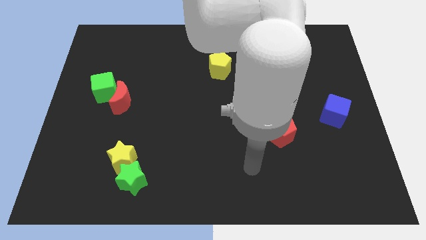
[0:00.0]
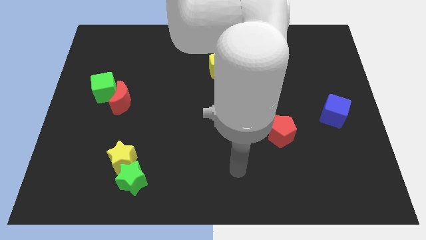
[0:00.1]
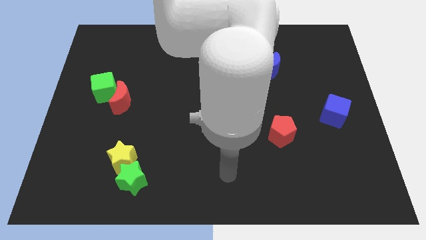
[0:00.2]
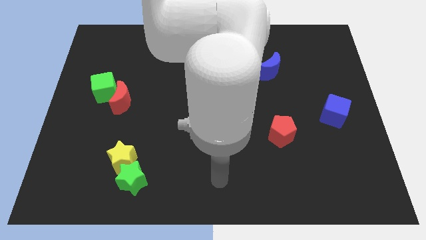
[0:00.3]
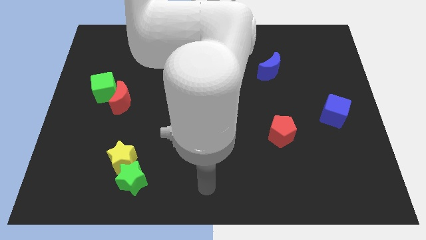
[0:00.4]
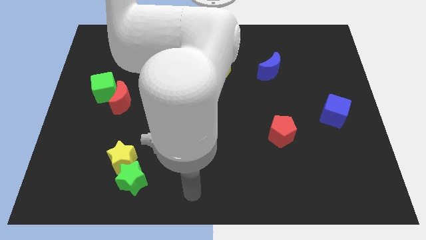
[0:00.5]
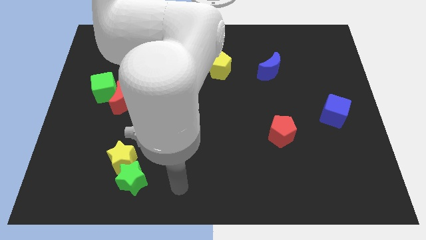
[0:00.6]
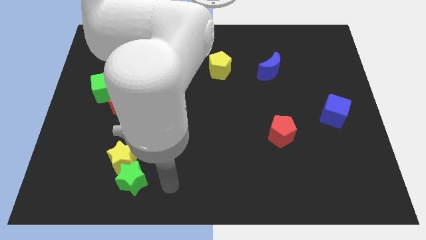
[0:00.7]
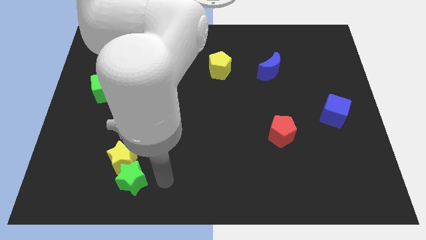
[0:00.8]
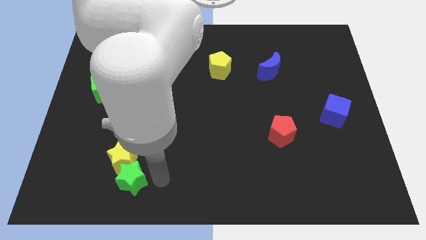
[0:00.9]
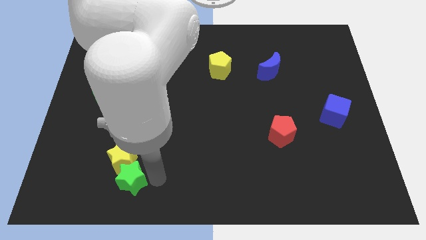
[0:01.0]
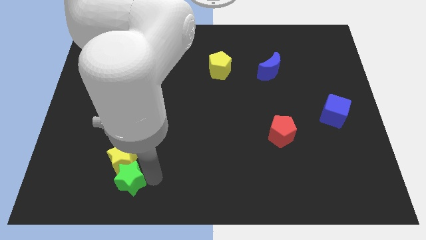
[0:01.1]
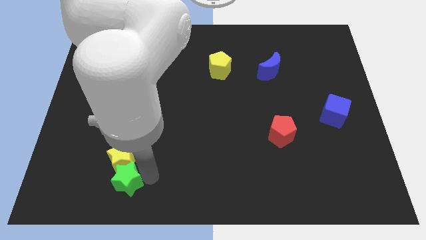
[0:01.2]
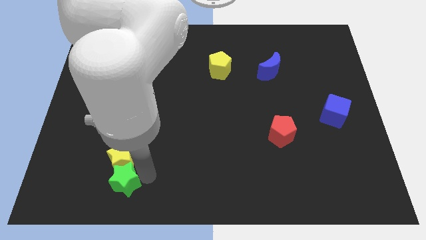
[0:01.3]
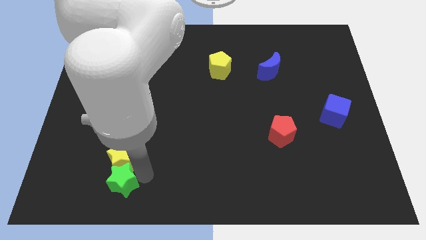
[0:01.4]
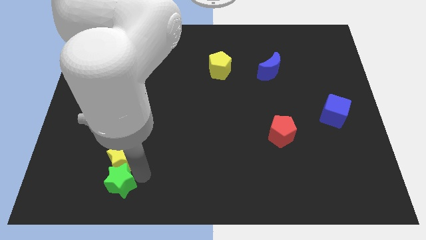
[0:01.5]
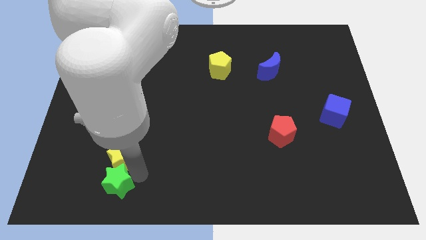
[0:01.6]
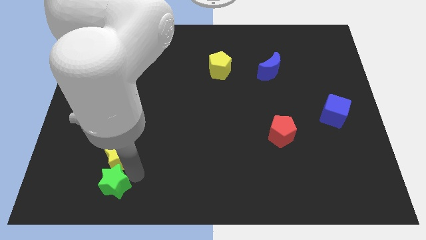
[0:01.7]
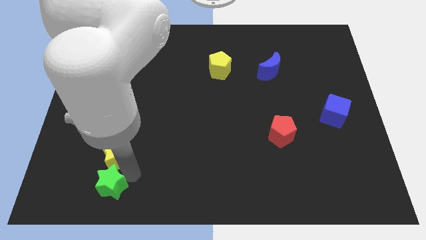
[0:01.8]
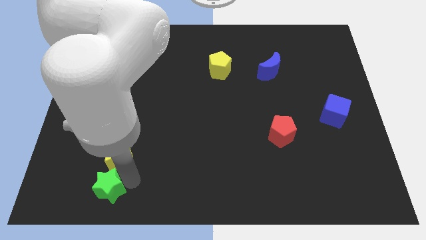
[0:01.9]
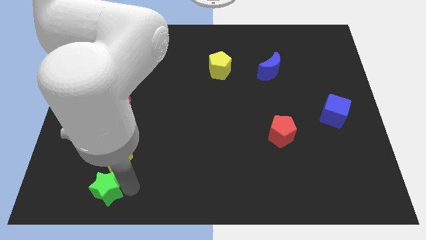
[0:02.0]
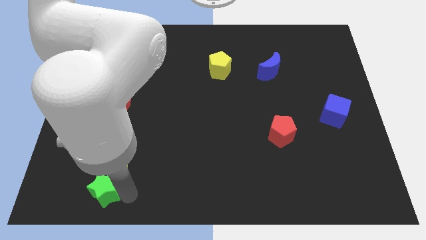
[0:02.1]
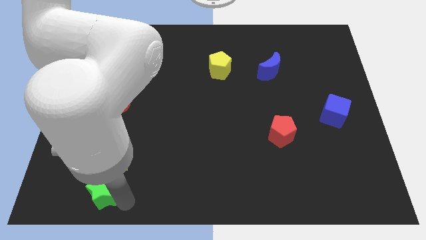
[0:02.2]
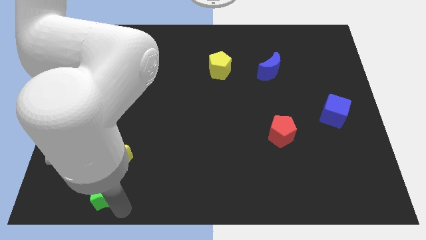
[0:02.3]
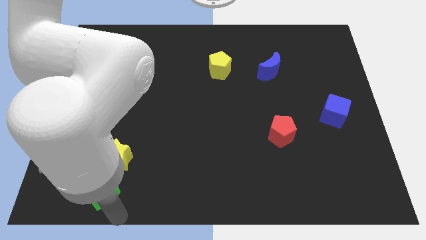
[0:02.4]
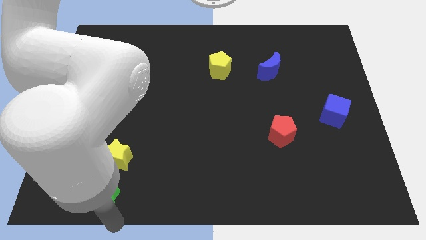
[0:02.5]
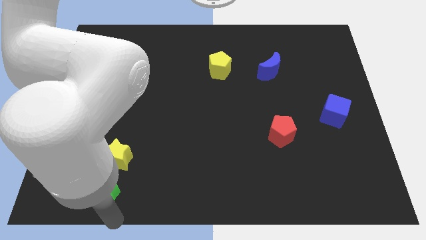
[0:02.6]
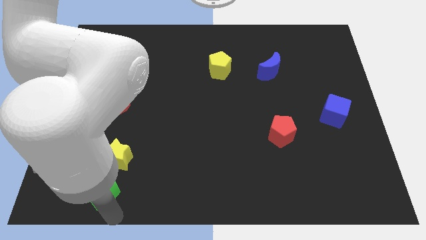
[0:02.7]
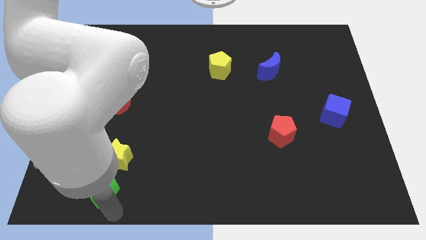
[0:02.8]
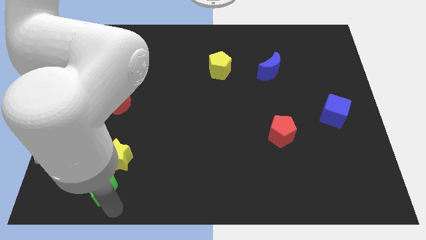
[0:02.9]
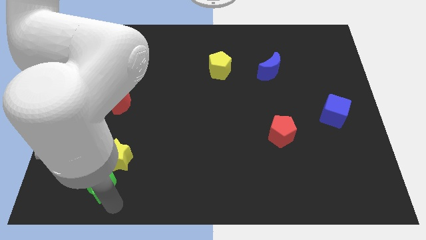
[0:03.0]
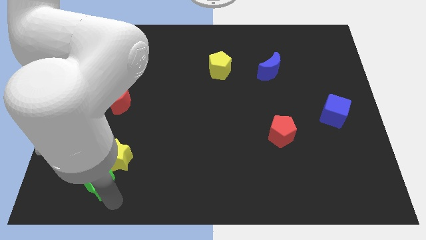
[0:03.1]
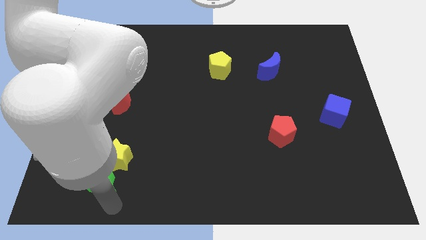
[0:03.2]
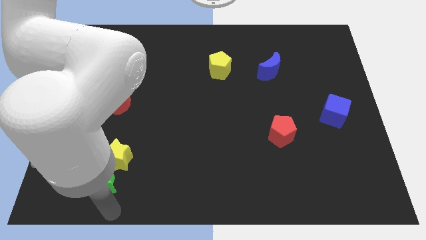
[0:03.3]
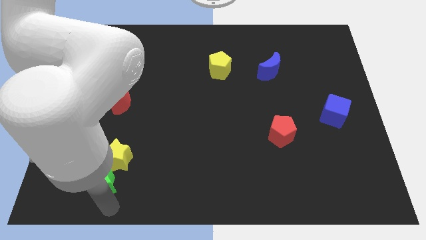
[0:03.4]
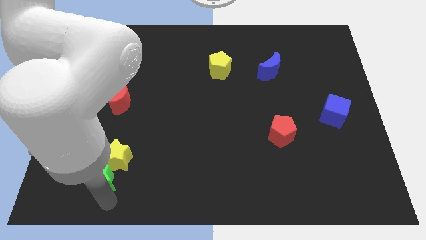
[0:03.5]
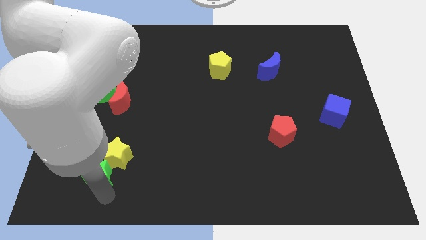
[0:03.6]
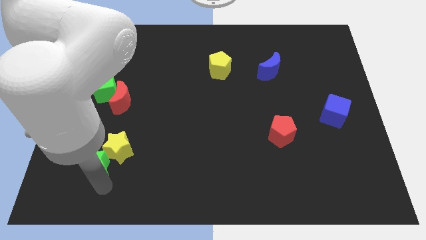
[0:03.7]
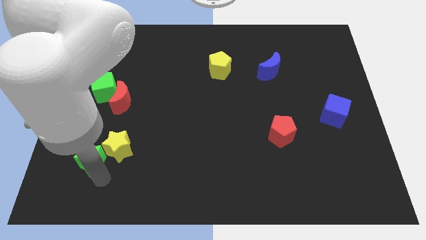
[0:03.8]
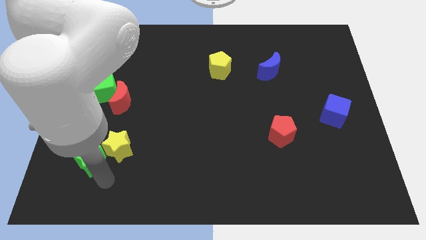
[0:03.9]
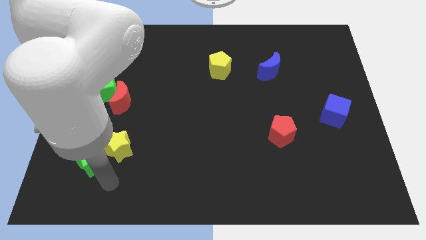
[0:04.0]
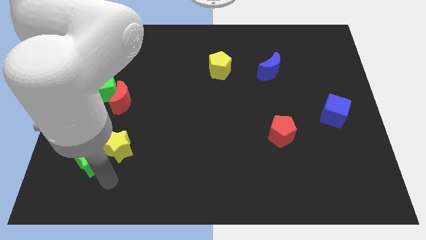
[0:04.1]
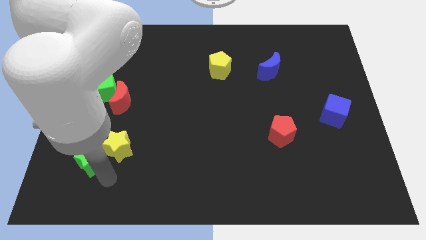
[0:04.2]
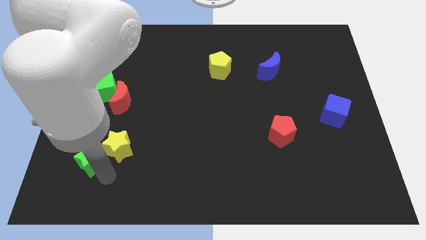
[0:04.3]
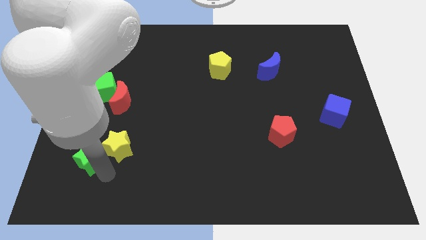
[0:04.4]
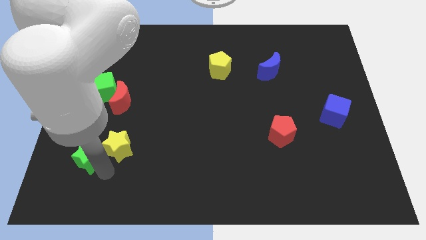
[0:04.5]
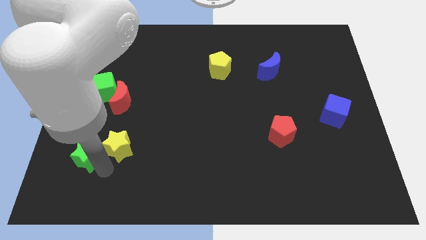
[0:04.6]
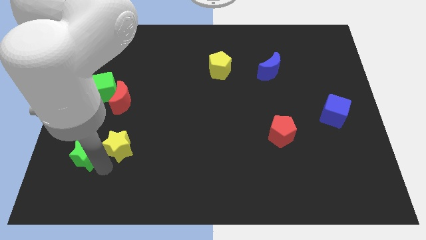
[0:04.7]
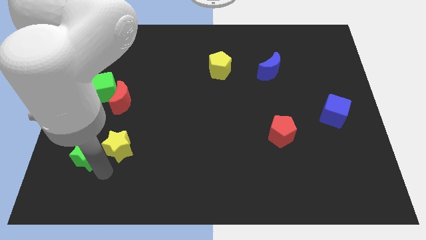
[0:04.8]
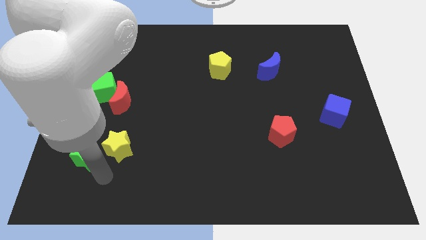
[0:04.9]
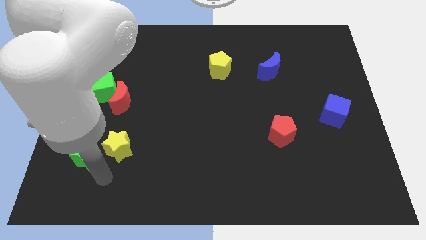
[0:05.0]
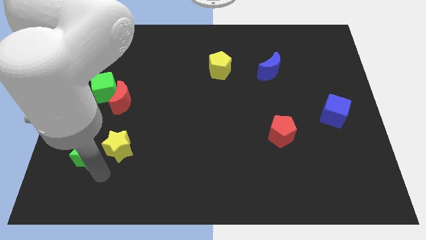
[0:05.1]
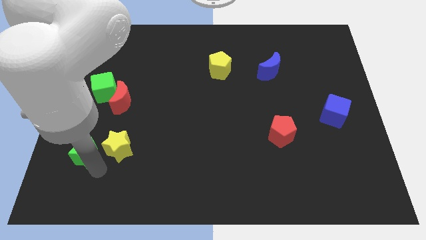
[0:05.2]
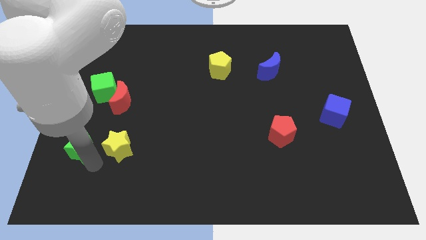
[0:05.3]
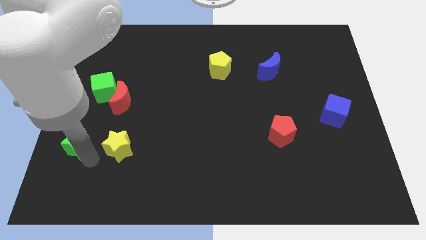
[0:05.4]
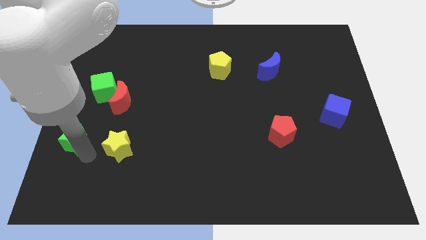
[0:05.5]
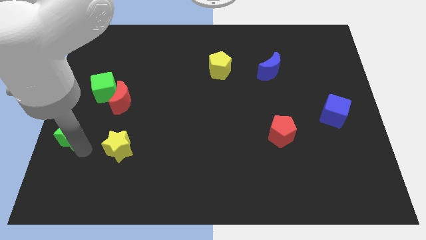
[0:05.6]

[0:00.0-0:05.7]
push the green star to the left side

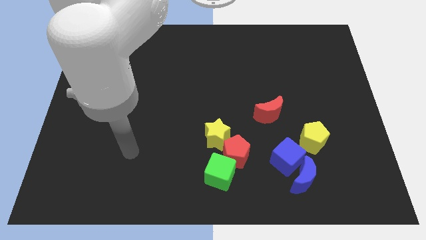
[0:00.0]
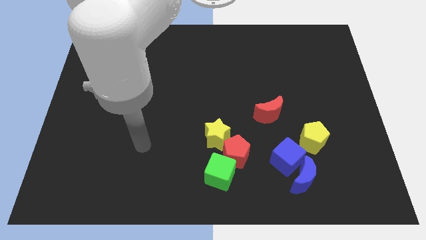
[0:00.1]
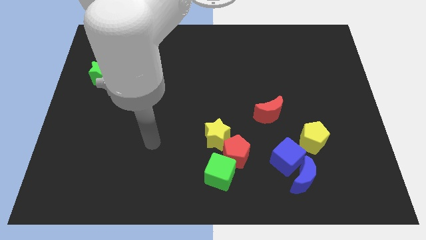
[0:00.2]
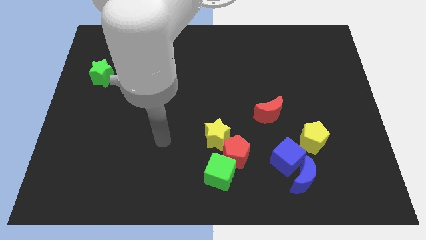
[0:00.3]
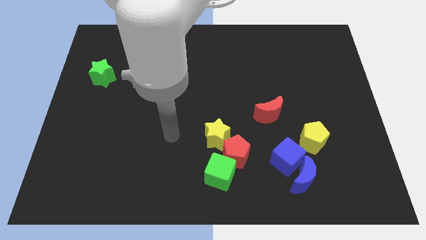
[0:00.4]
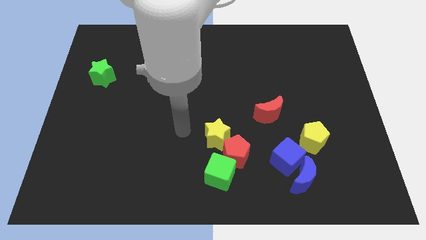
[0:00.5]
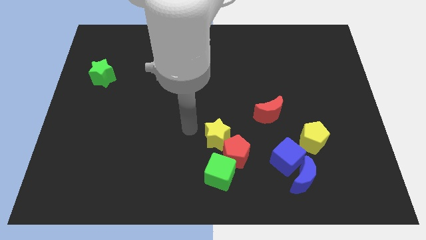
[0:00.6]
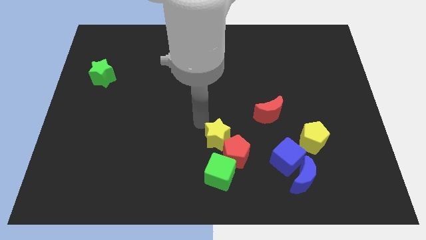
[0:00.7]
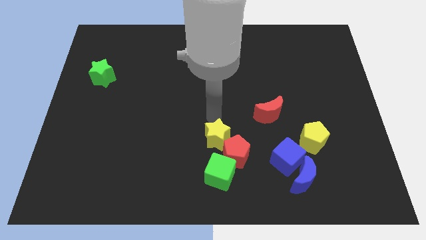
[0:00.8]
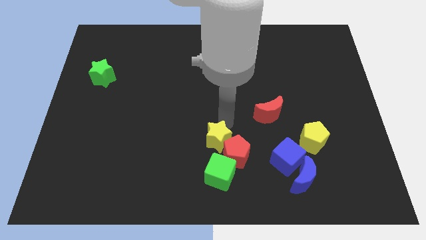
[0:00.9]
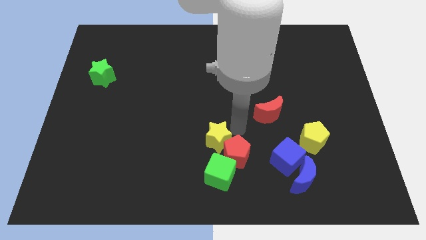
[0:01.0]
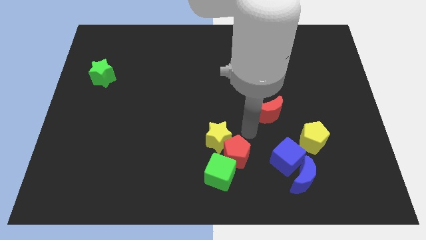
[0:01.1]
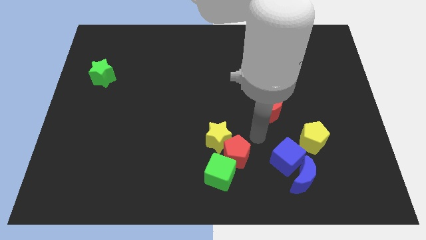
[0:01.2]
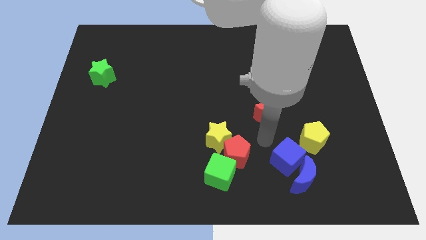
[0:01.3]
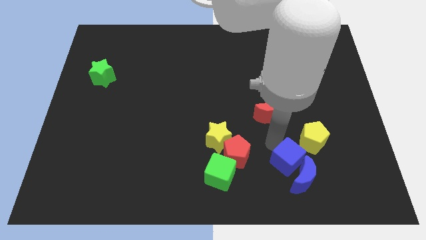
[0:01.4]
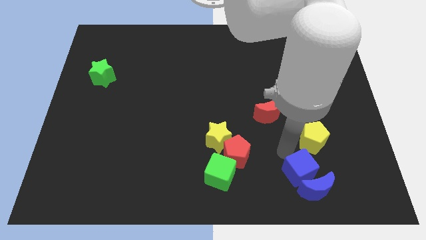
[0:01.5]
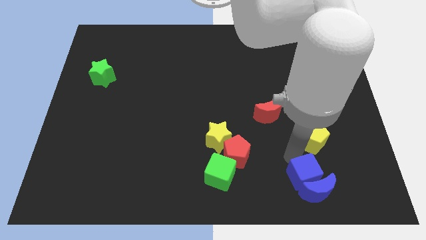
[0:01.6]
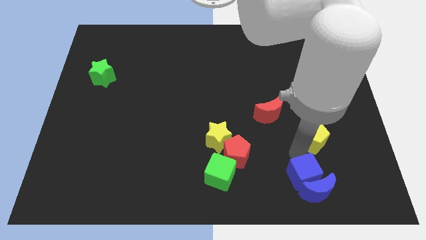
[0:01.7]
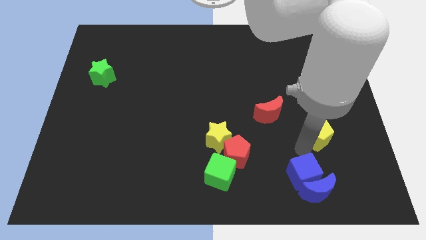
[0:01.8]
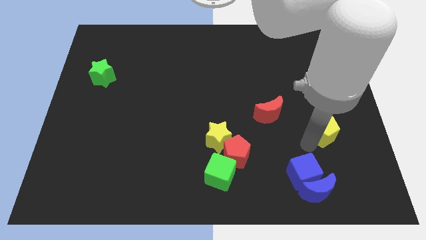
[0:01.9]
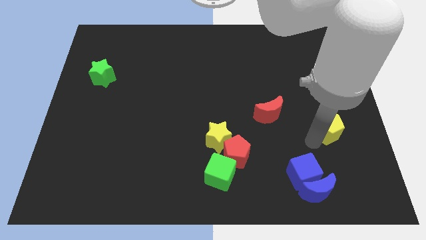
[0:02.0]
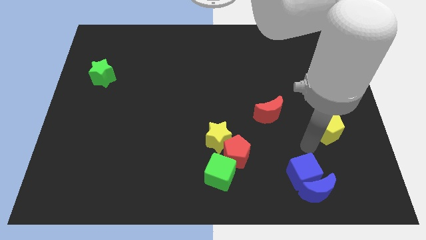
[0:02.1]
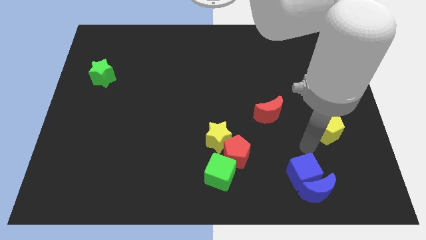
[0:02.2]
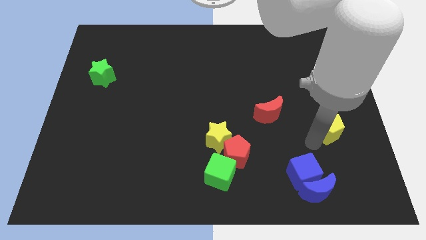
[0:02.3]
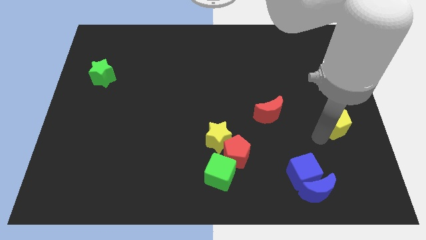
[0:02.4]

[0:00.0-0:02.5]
slide the yellow pentagon to the right side
